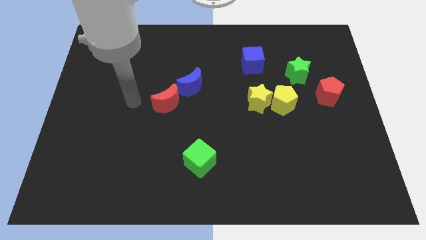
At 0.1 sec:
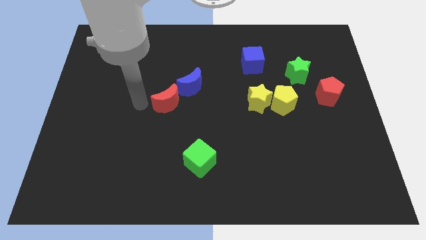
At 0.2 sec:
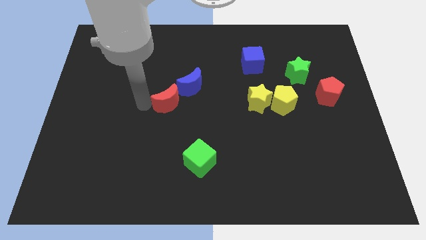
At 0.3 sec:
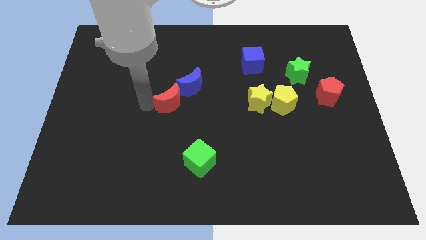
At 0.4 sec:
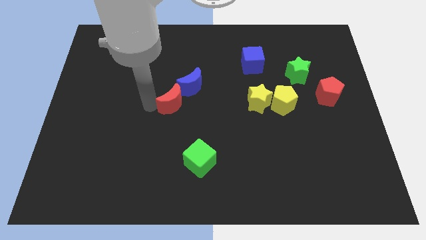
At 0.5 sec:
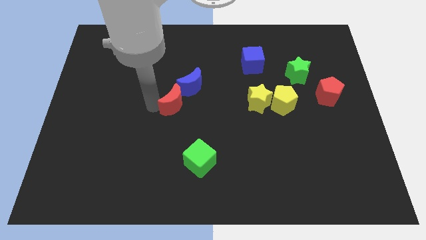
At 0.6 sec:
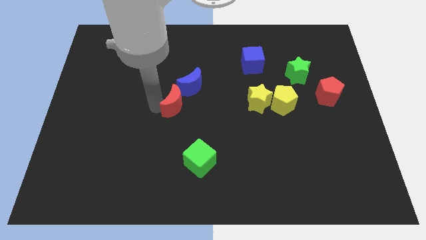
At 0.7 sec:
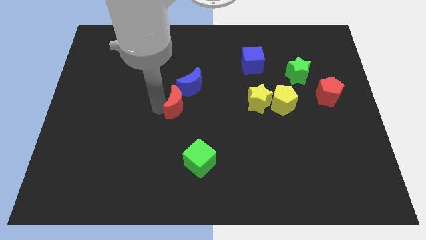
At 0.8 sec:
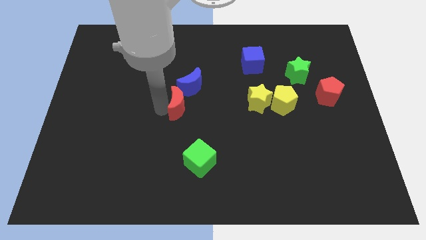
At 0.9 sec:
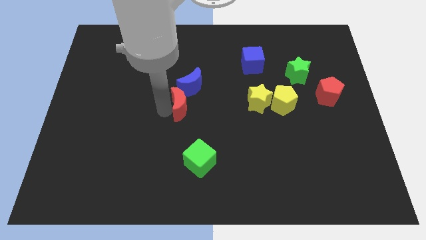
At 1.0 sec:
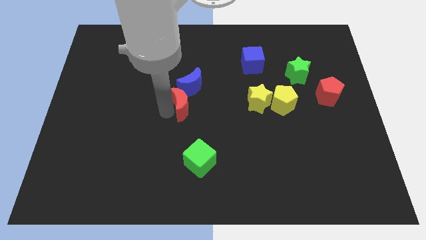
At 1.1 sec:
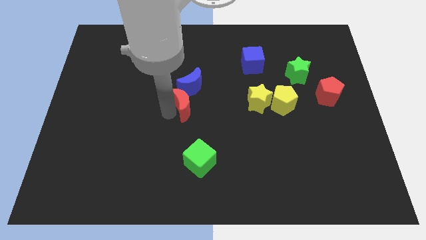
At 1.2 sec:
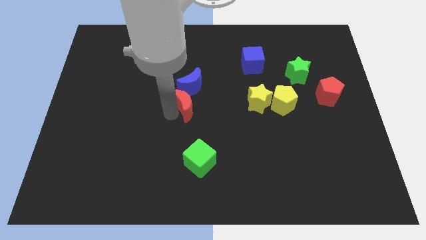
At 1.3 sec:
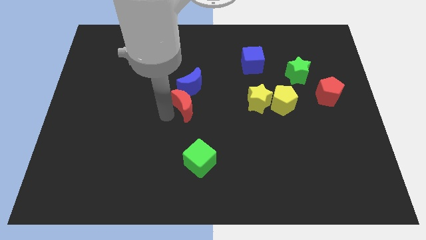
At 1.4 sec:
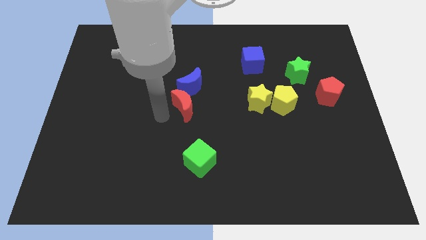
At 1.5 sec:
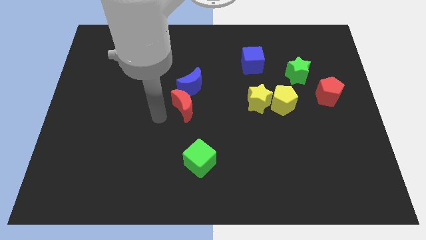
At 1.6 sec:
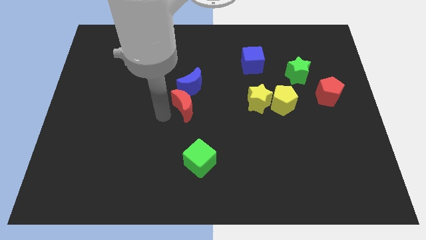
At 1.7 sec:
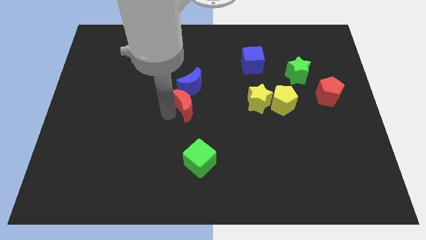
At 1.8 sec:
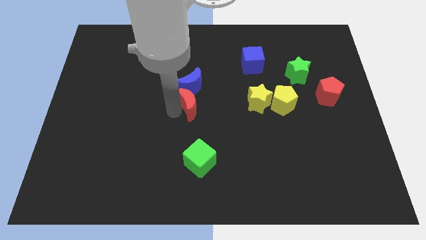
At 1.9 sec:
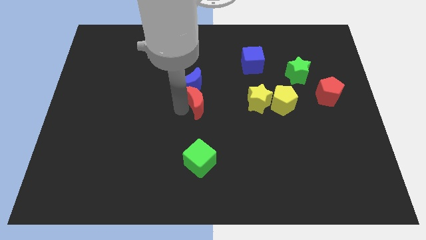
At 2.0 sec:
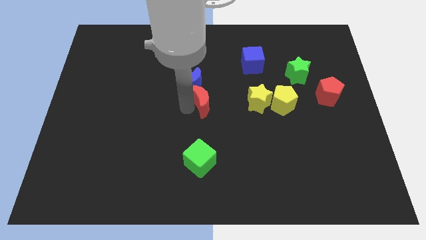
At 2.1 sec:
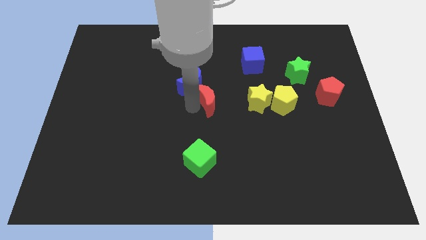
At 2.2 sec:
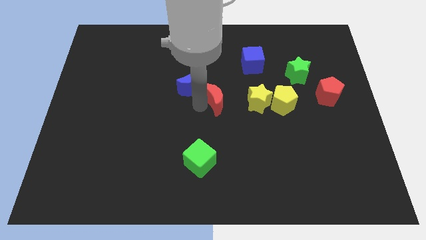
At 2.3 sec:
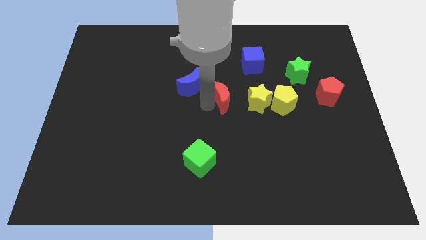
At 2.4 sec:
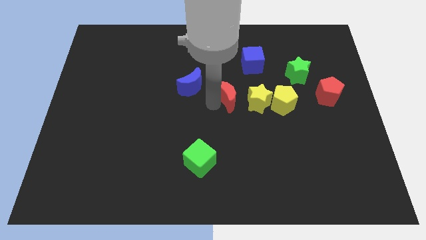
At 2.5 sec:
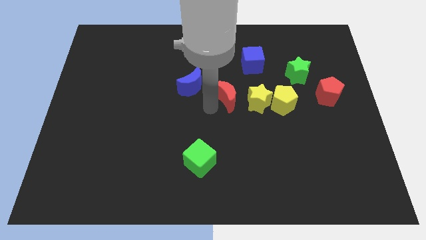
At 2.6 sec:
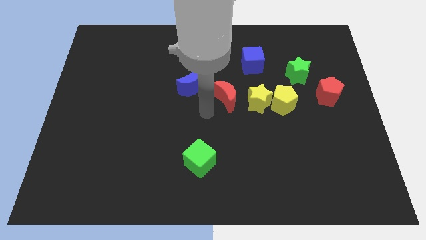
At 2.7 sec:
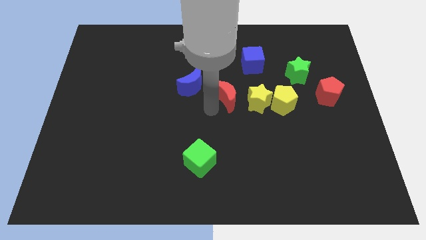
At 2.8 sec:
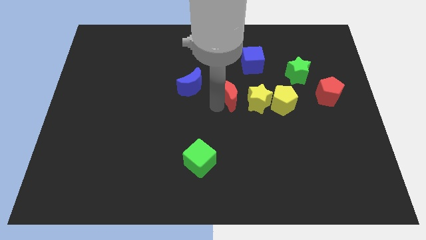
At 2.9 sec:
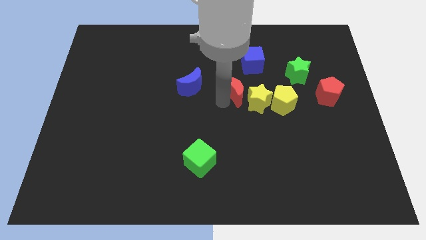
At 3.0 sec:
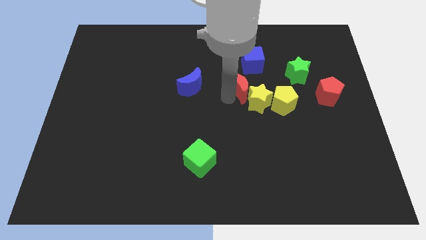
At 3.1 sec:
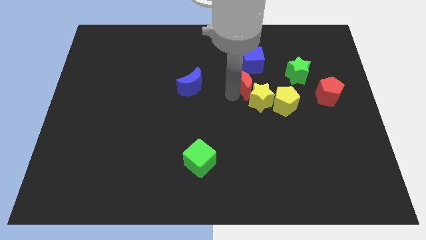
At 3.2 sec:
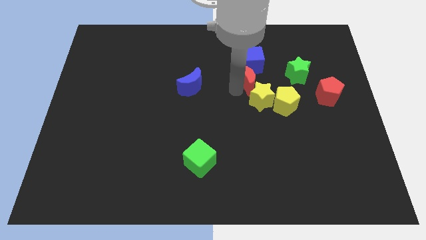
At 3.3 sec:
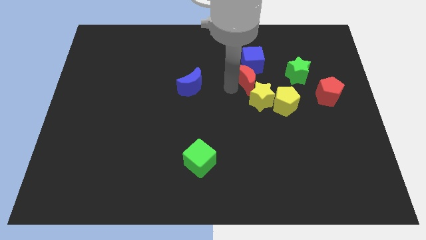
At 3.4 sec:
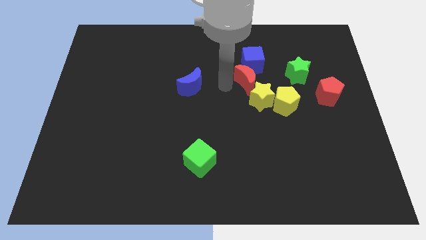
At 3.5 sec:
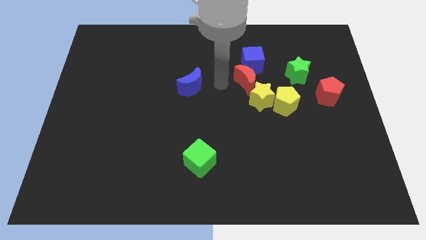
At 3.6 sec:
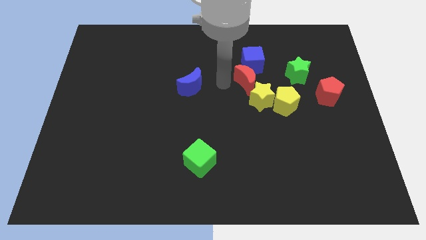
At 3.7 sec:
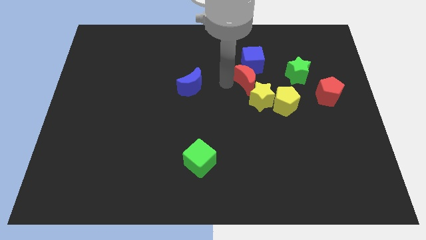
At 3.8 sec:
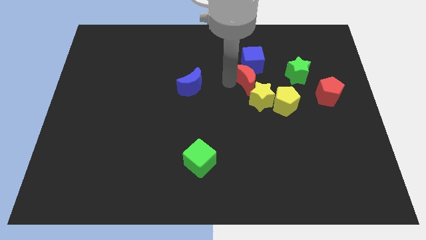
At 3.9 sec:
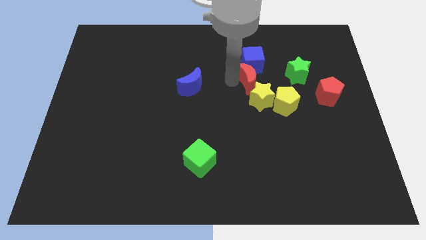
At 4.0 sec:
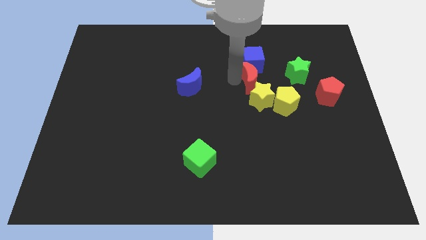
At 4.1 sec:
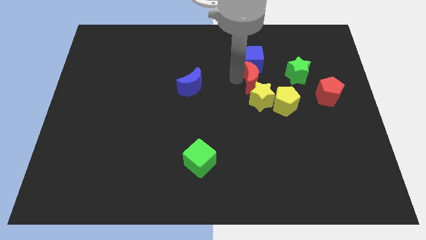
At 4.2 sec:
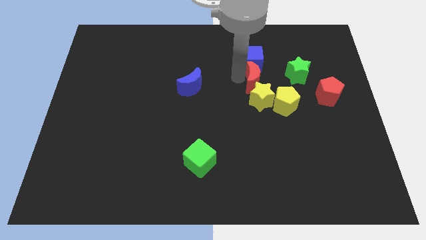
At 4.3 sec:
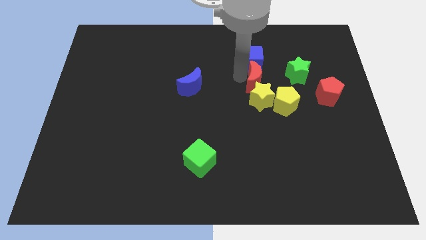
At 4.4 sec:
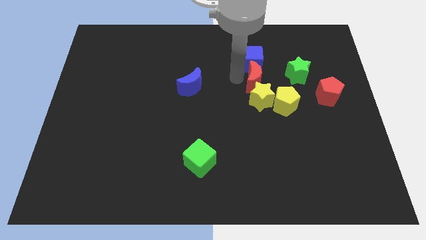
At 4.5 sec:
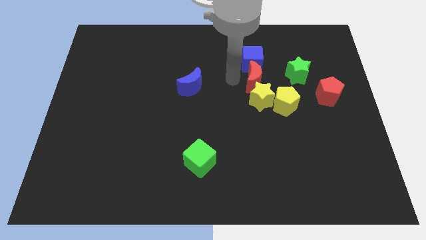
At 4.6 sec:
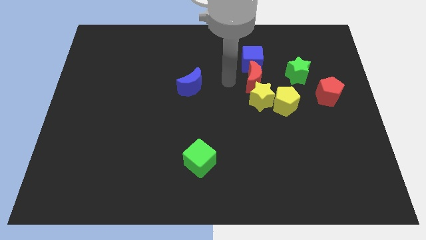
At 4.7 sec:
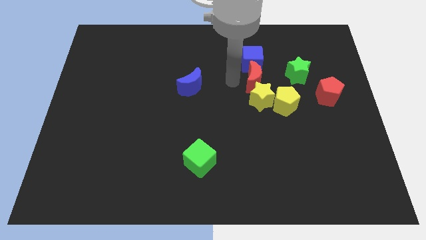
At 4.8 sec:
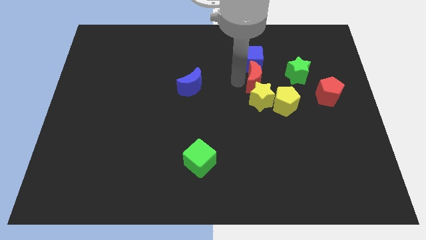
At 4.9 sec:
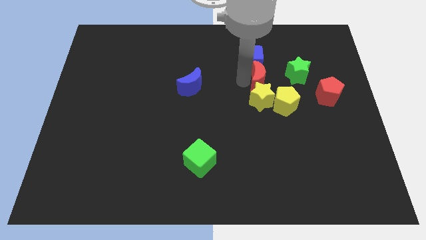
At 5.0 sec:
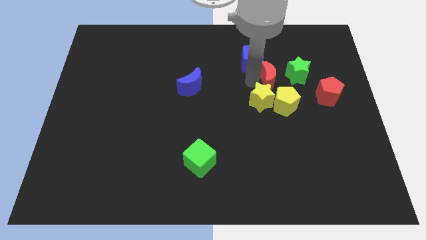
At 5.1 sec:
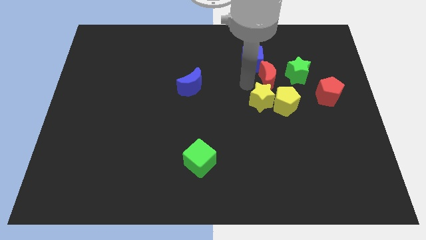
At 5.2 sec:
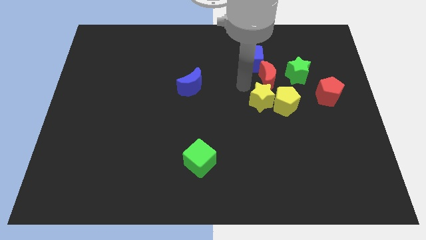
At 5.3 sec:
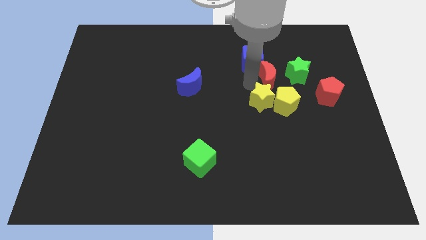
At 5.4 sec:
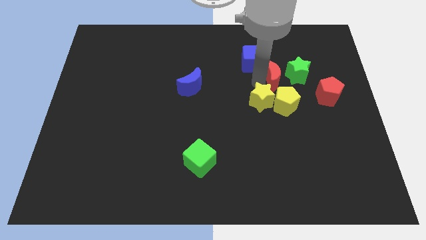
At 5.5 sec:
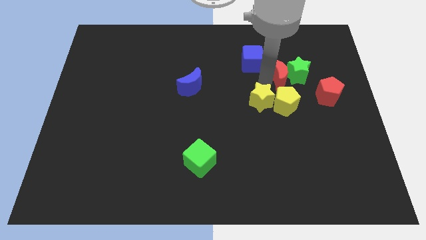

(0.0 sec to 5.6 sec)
put the red moon towards the green star

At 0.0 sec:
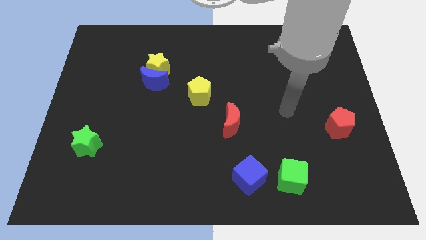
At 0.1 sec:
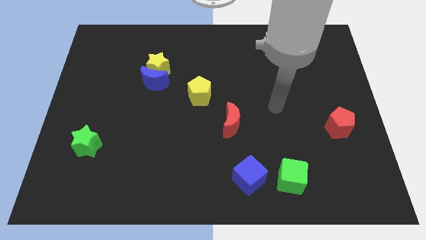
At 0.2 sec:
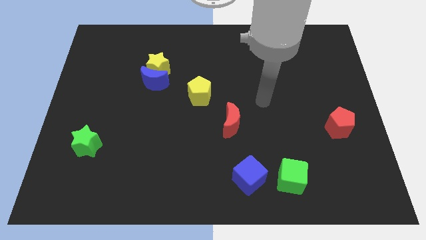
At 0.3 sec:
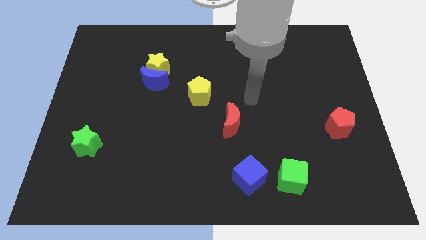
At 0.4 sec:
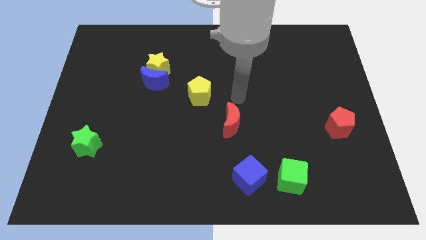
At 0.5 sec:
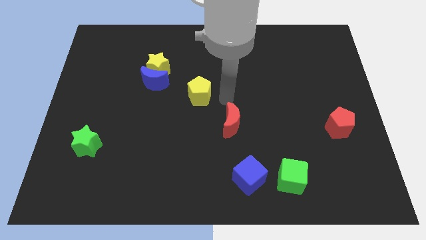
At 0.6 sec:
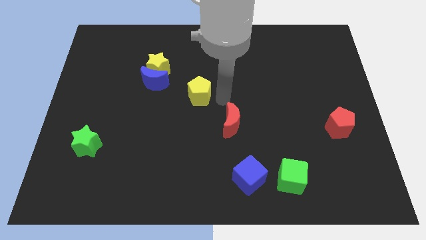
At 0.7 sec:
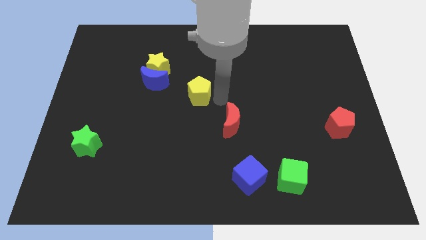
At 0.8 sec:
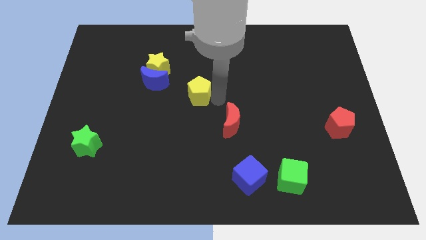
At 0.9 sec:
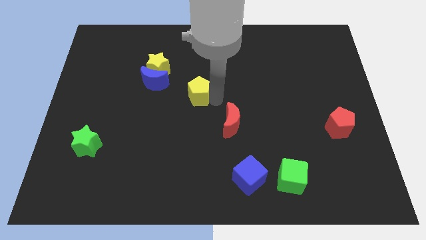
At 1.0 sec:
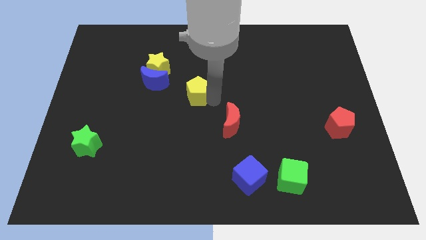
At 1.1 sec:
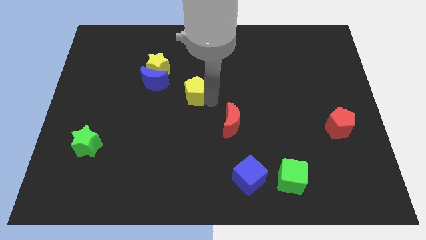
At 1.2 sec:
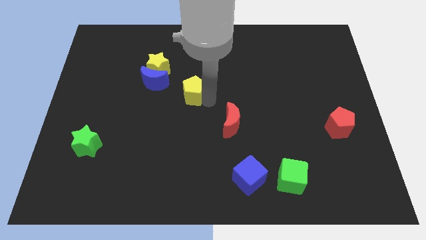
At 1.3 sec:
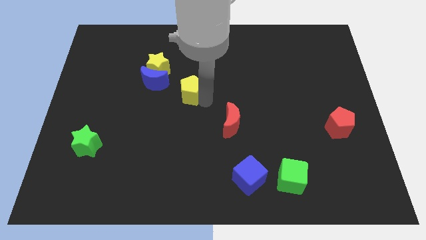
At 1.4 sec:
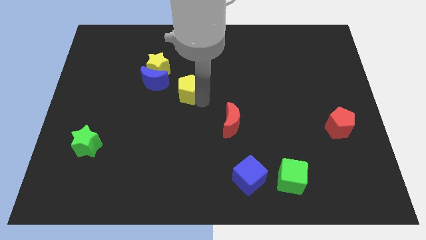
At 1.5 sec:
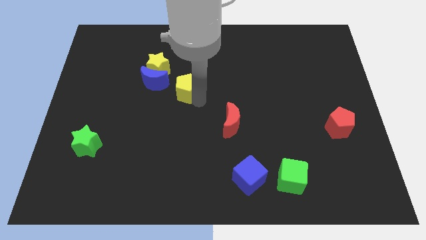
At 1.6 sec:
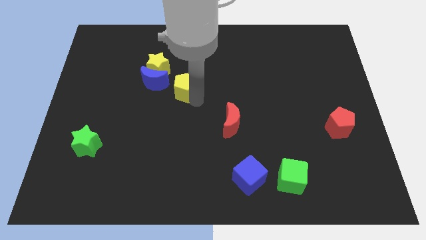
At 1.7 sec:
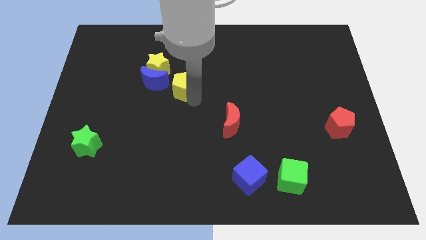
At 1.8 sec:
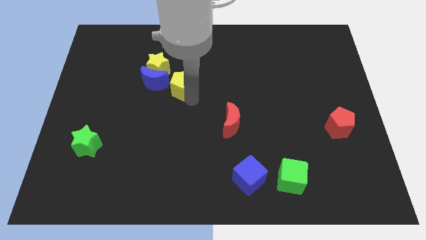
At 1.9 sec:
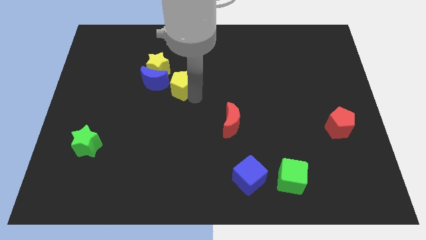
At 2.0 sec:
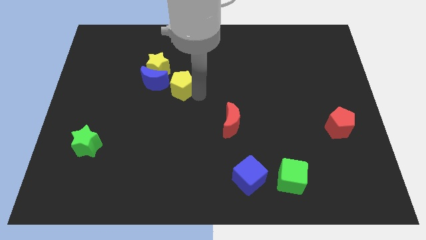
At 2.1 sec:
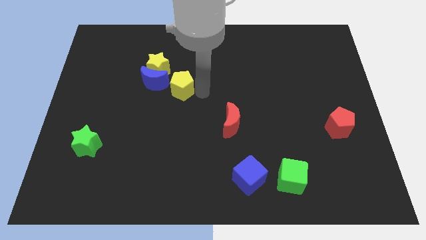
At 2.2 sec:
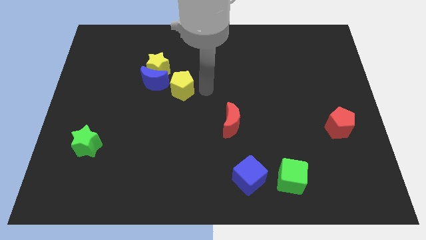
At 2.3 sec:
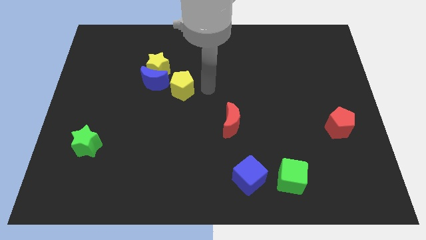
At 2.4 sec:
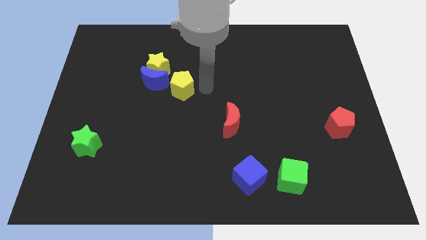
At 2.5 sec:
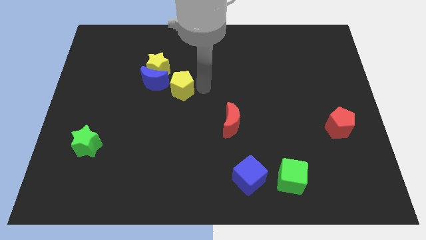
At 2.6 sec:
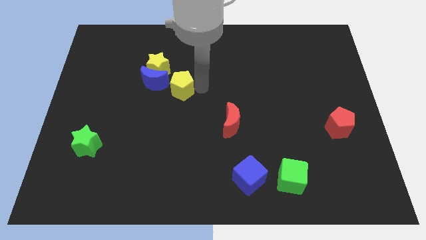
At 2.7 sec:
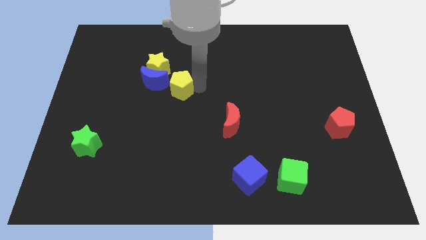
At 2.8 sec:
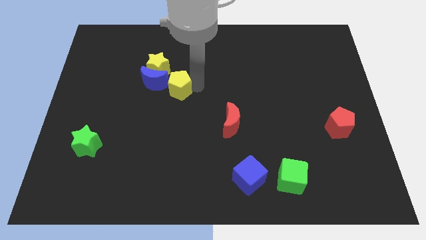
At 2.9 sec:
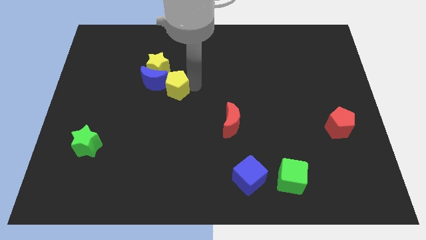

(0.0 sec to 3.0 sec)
slide the yellow pentagon next to the blue moon
